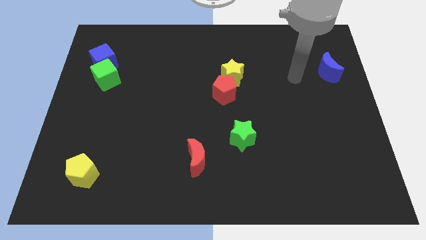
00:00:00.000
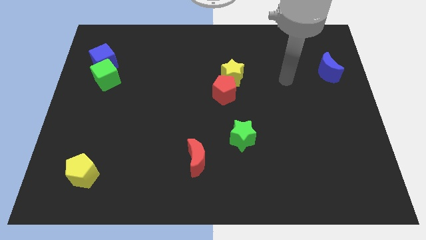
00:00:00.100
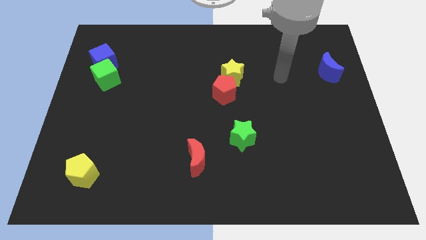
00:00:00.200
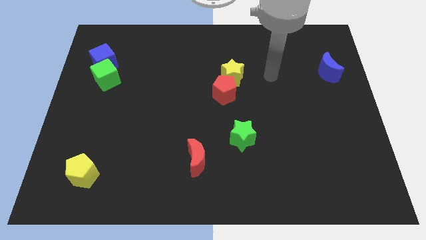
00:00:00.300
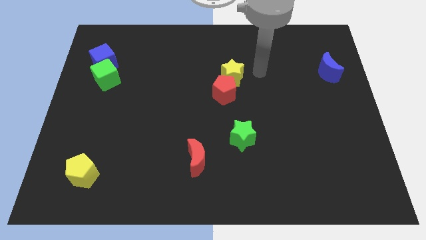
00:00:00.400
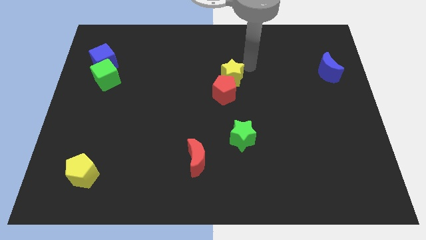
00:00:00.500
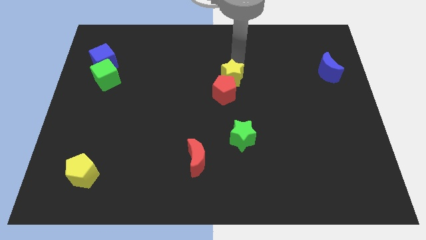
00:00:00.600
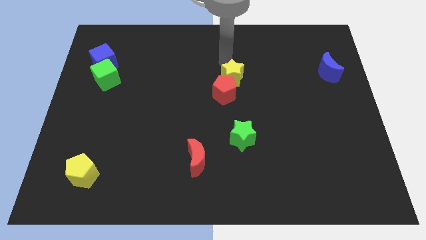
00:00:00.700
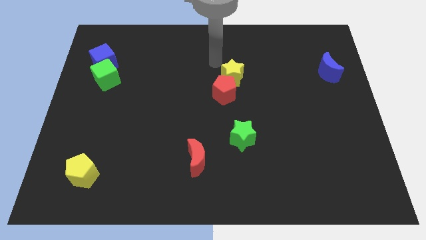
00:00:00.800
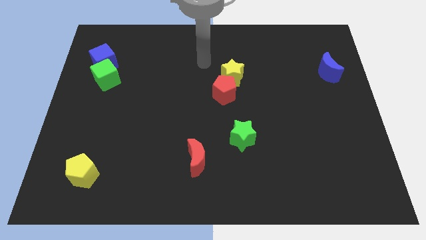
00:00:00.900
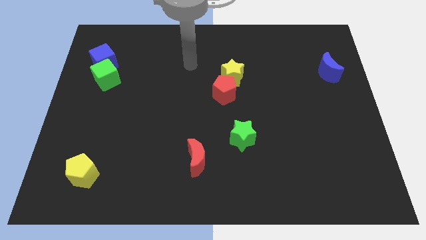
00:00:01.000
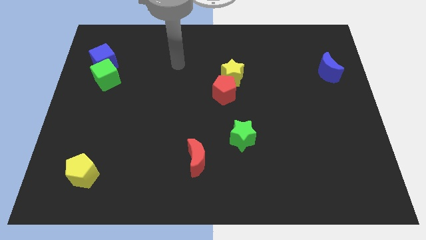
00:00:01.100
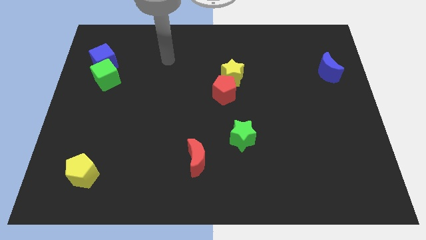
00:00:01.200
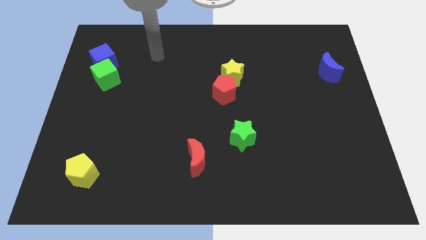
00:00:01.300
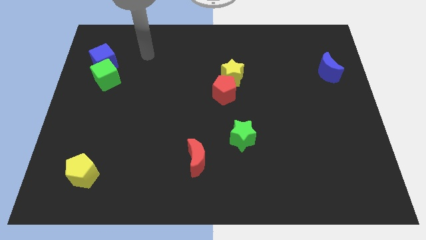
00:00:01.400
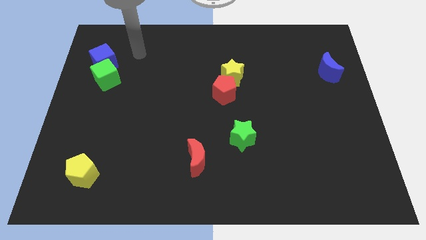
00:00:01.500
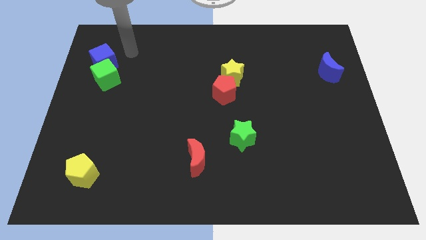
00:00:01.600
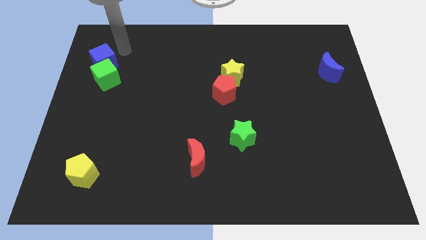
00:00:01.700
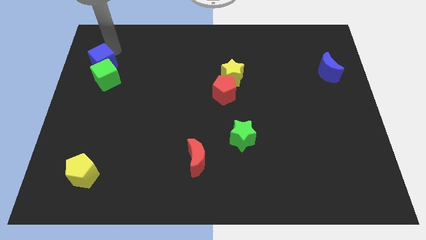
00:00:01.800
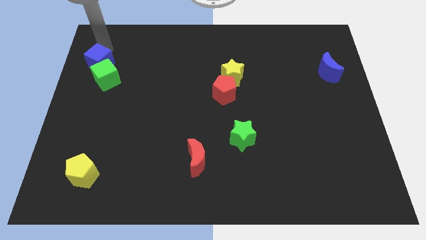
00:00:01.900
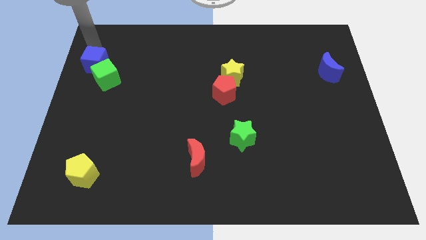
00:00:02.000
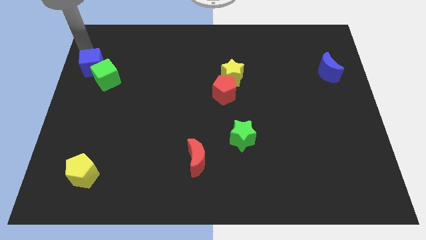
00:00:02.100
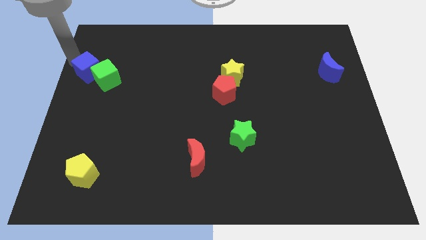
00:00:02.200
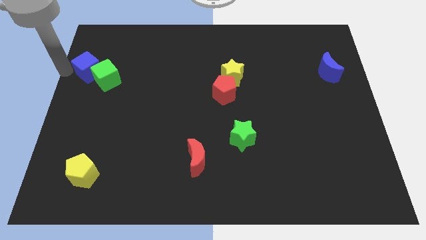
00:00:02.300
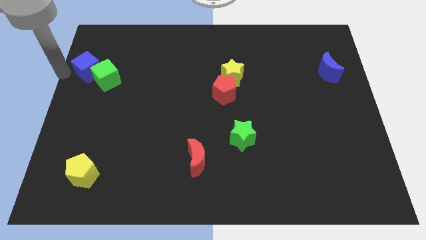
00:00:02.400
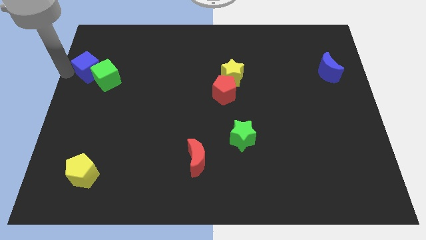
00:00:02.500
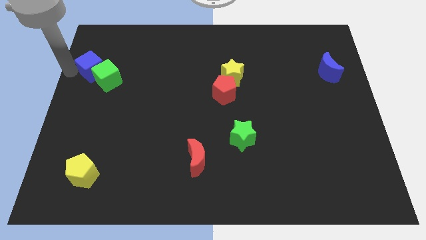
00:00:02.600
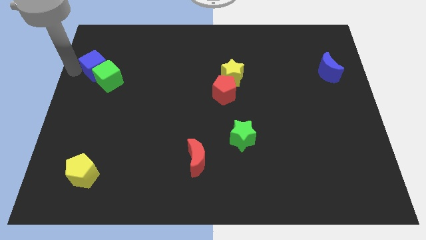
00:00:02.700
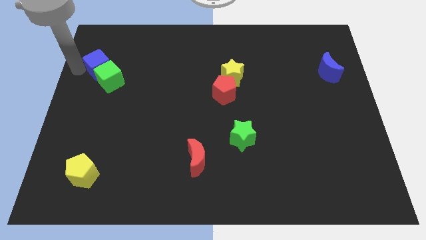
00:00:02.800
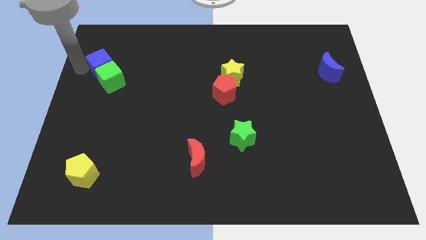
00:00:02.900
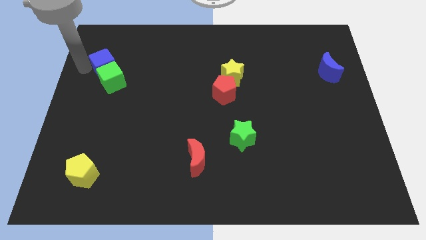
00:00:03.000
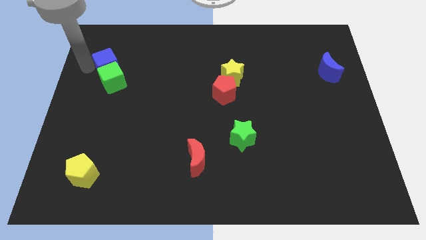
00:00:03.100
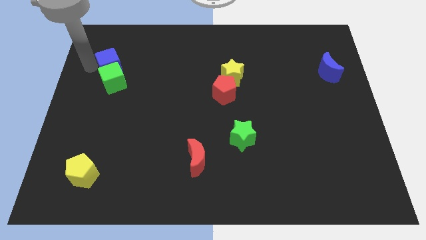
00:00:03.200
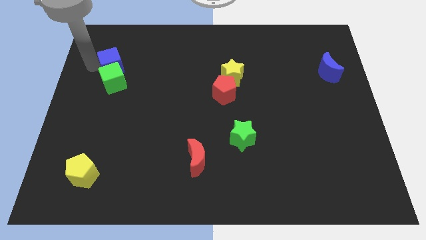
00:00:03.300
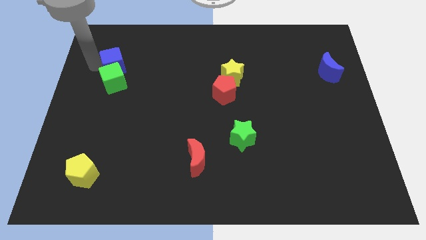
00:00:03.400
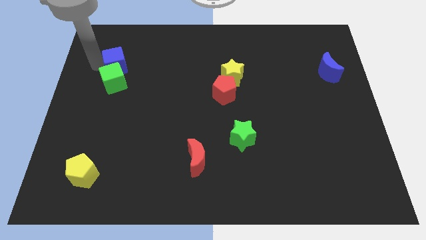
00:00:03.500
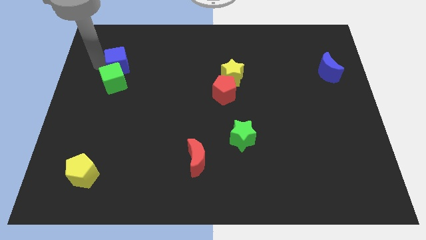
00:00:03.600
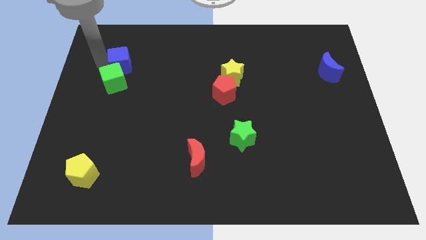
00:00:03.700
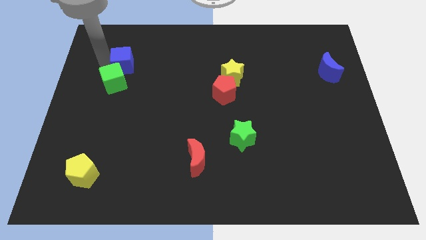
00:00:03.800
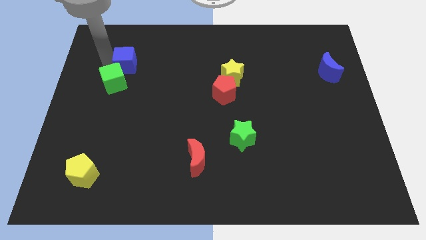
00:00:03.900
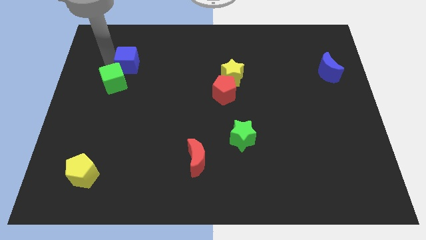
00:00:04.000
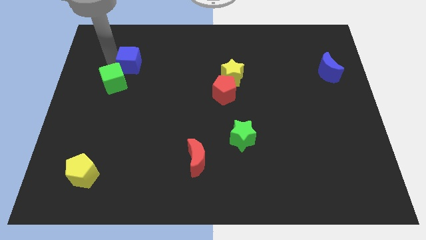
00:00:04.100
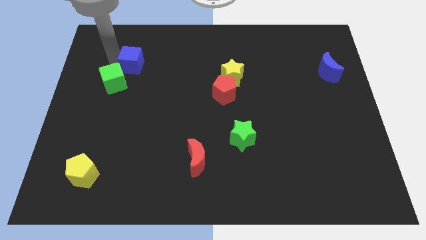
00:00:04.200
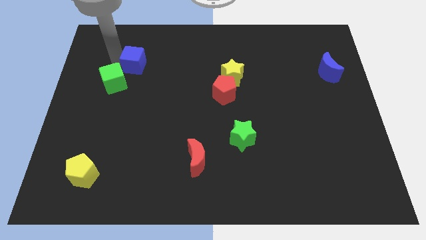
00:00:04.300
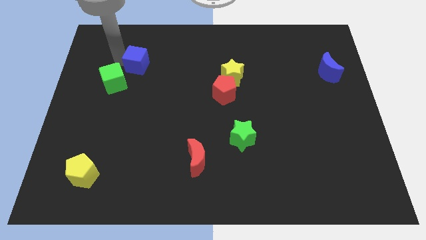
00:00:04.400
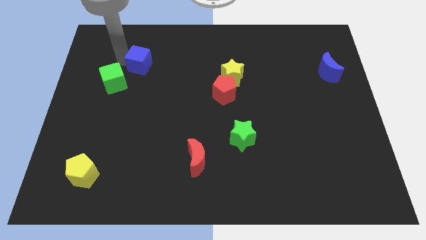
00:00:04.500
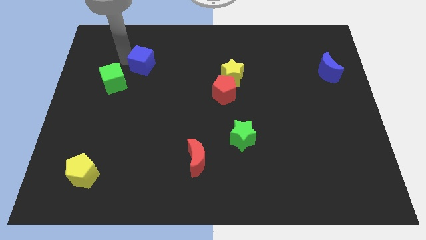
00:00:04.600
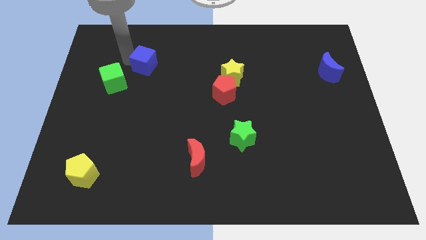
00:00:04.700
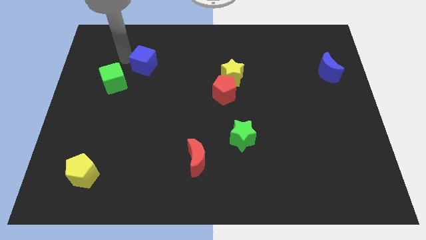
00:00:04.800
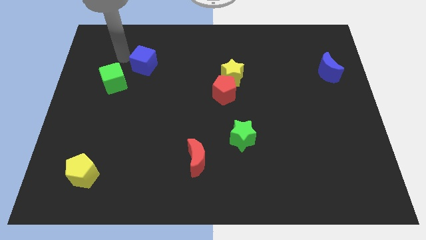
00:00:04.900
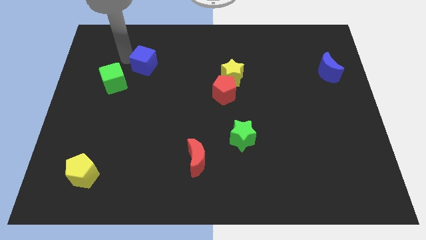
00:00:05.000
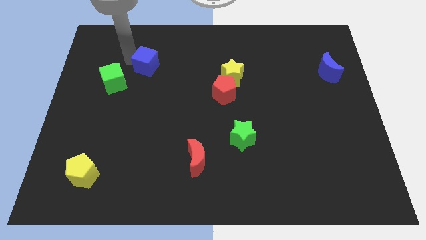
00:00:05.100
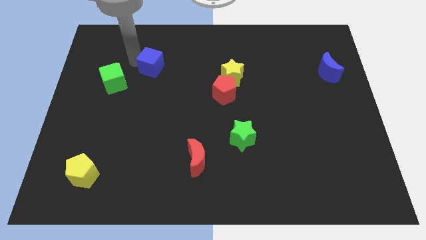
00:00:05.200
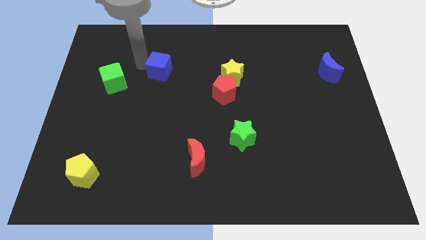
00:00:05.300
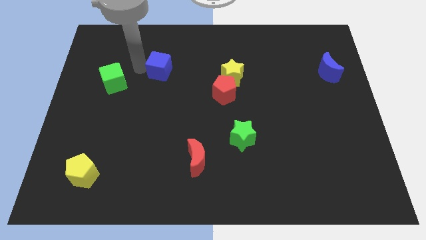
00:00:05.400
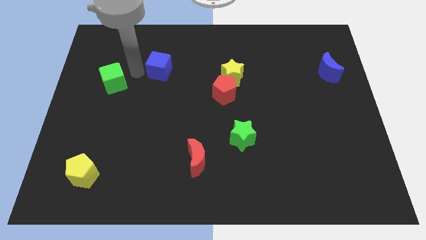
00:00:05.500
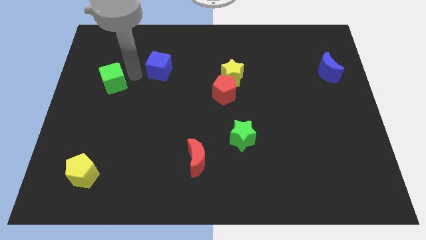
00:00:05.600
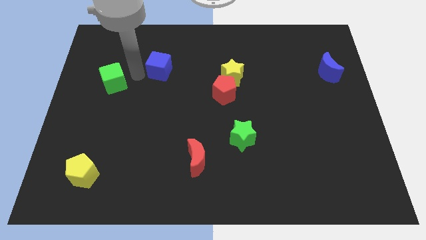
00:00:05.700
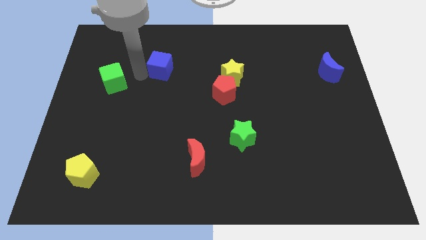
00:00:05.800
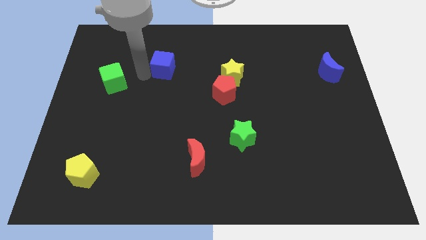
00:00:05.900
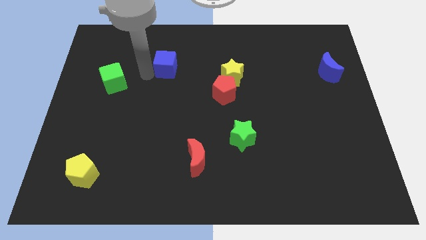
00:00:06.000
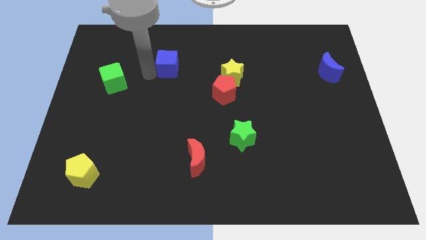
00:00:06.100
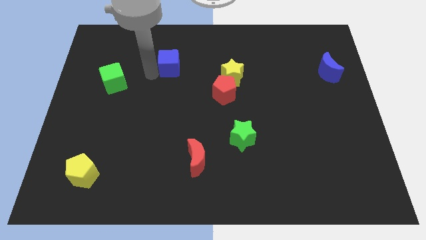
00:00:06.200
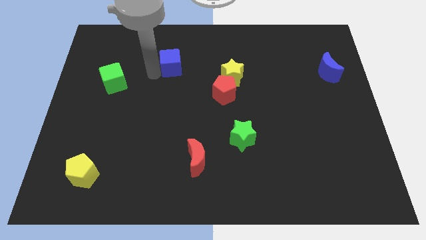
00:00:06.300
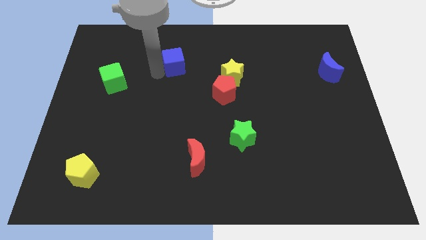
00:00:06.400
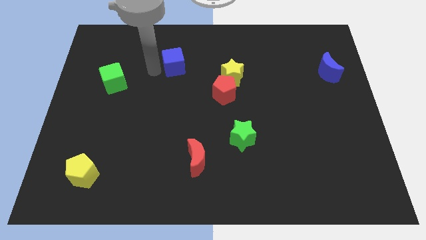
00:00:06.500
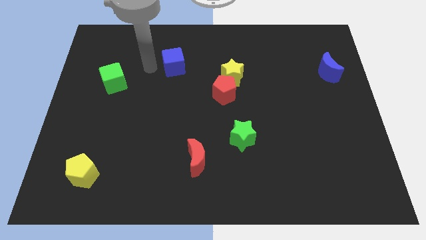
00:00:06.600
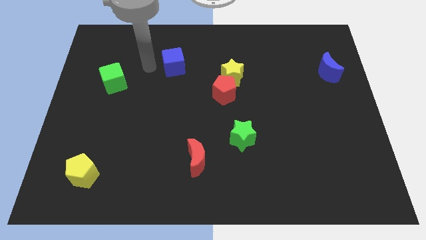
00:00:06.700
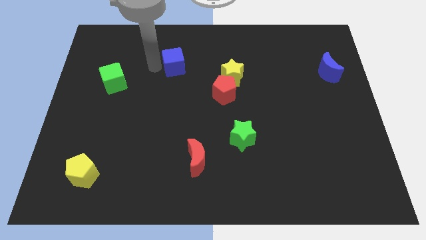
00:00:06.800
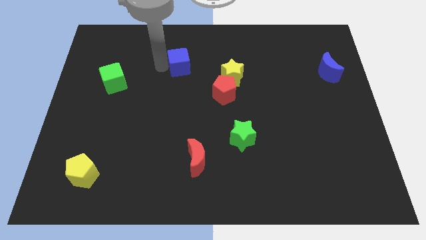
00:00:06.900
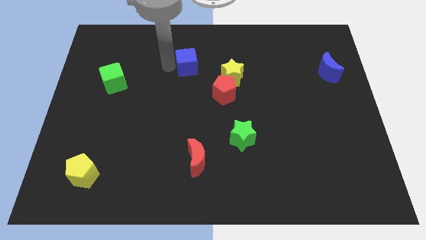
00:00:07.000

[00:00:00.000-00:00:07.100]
push the blue cube right

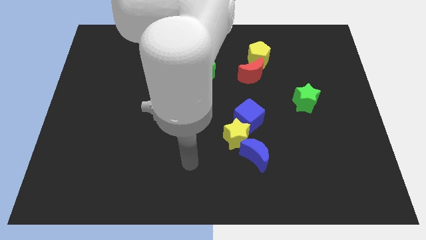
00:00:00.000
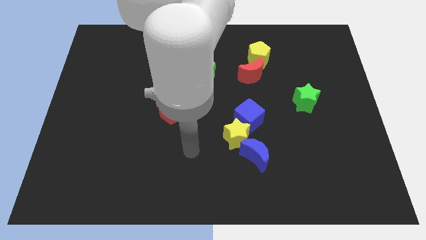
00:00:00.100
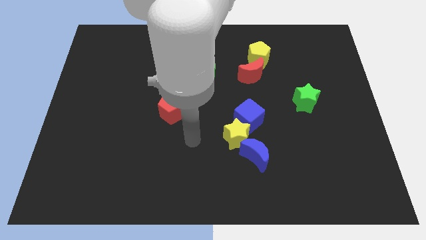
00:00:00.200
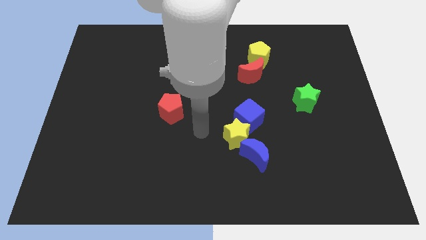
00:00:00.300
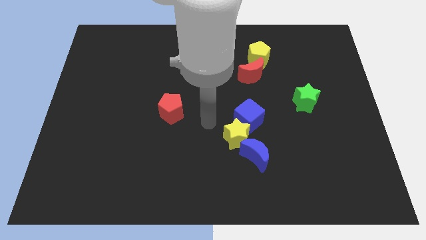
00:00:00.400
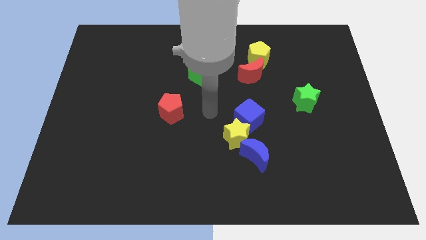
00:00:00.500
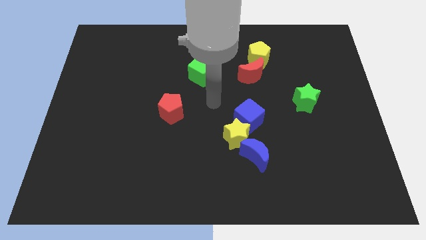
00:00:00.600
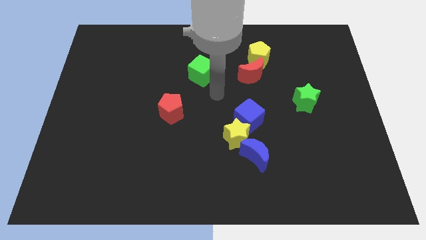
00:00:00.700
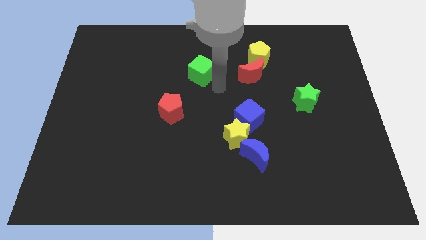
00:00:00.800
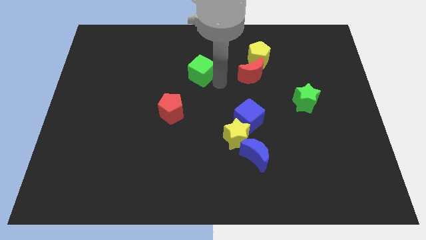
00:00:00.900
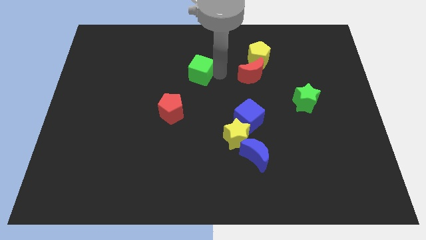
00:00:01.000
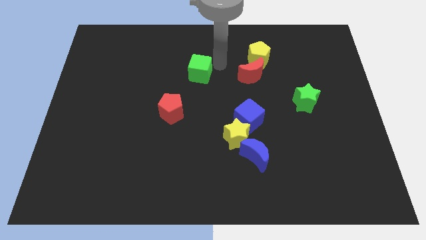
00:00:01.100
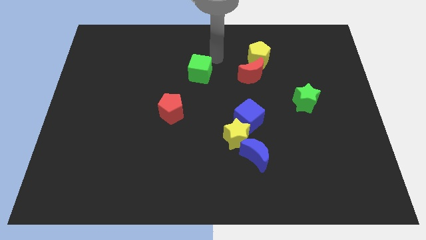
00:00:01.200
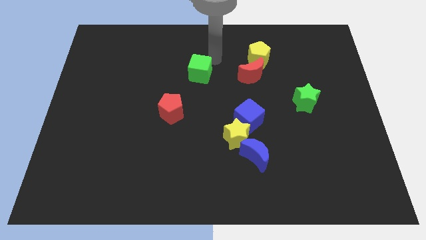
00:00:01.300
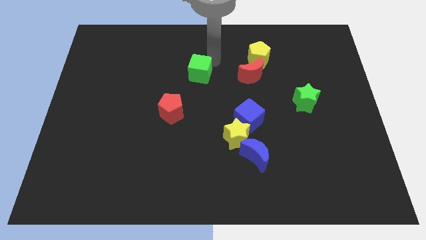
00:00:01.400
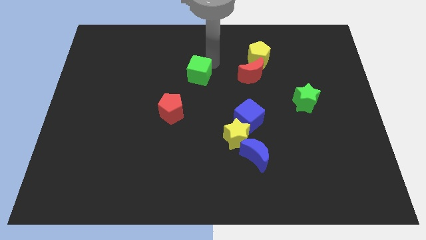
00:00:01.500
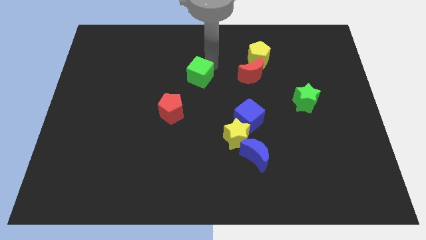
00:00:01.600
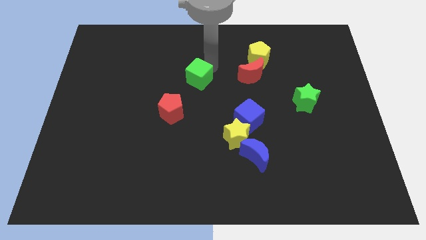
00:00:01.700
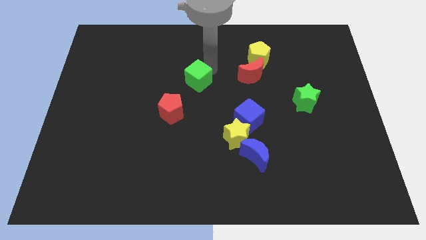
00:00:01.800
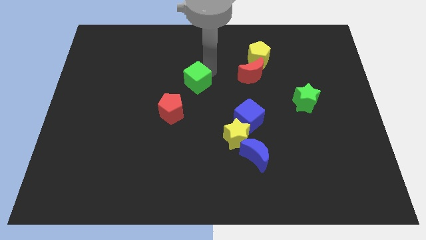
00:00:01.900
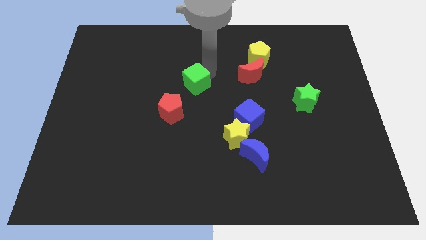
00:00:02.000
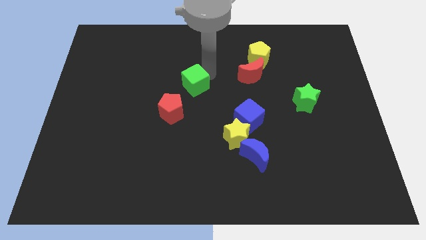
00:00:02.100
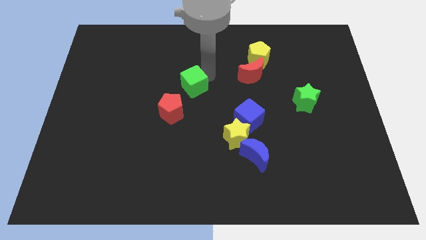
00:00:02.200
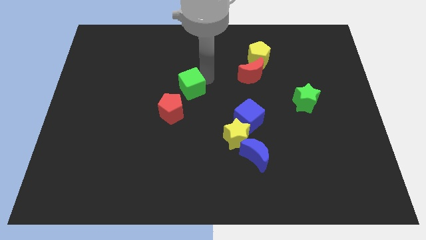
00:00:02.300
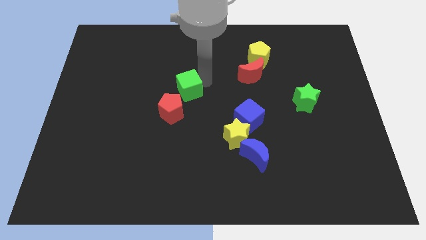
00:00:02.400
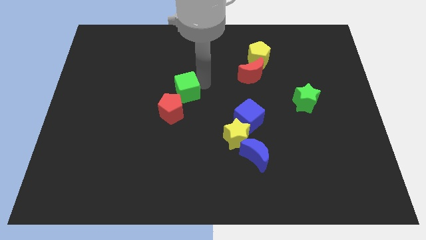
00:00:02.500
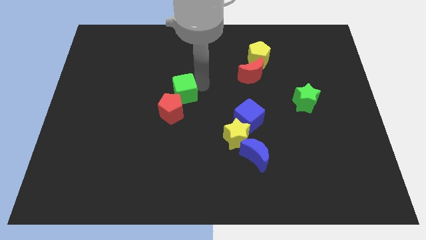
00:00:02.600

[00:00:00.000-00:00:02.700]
slightly push the green cube down and left diagonally
